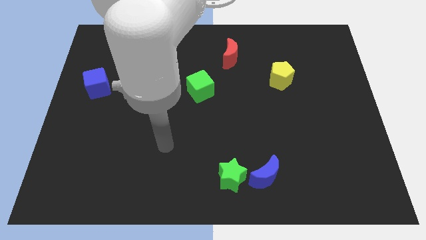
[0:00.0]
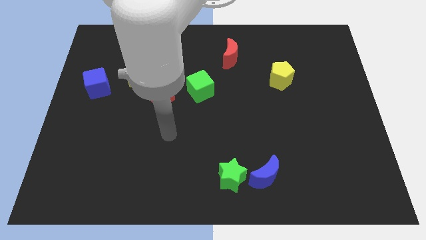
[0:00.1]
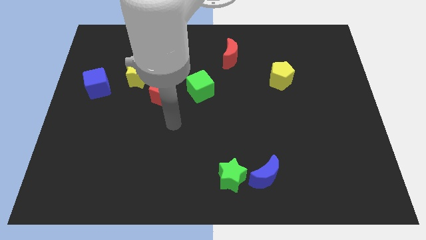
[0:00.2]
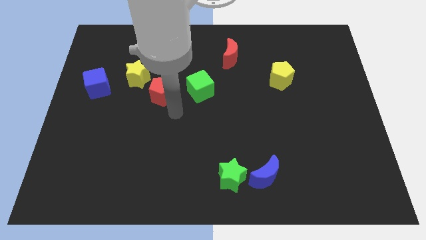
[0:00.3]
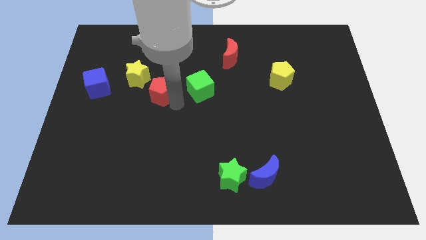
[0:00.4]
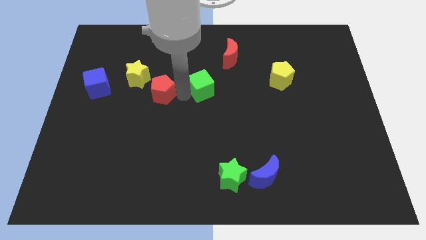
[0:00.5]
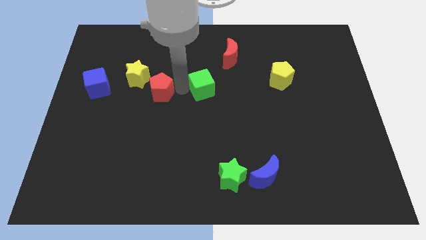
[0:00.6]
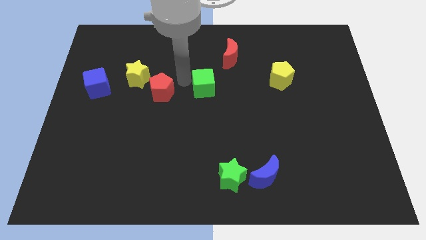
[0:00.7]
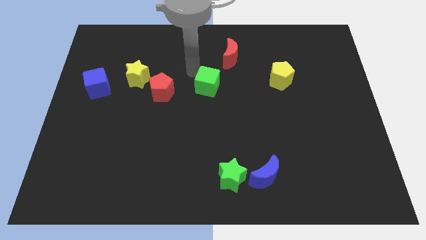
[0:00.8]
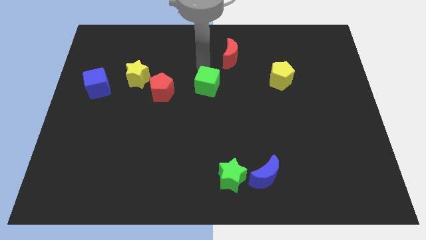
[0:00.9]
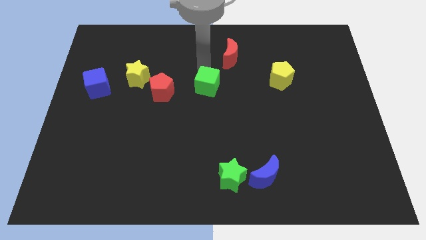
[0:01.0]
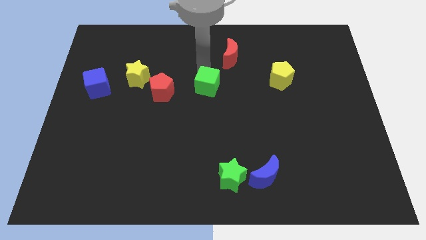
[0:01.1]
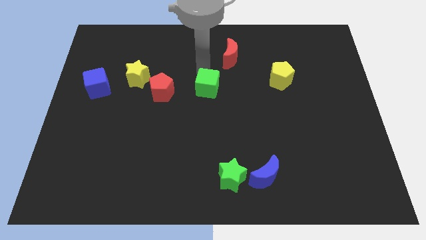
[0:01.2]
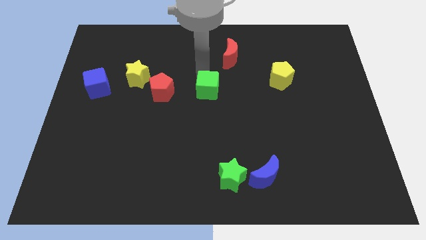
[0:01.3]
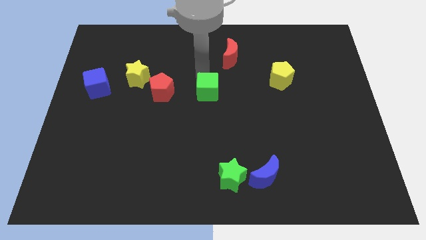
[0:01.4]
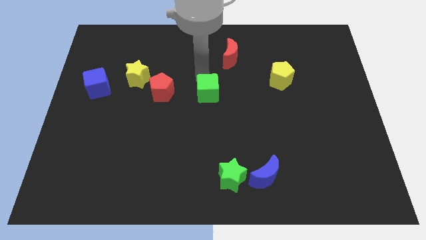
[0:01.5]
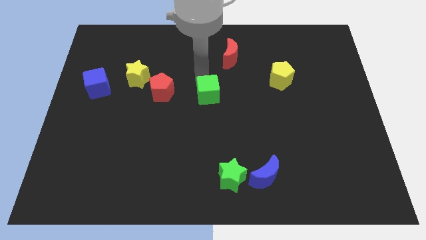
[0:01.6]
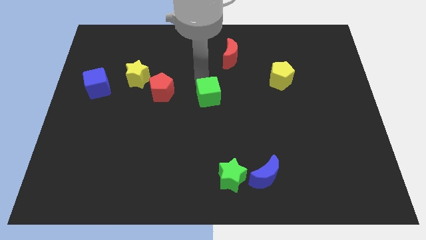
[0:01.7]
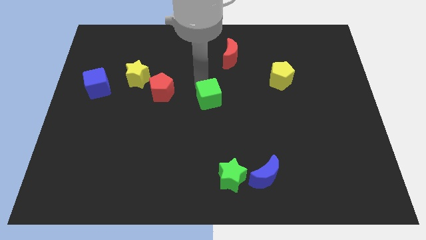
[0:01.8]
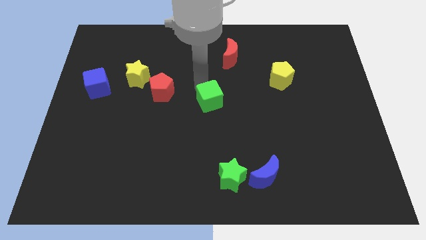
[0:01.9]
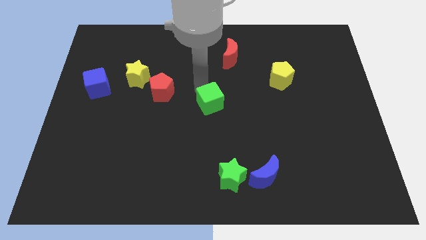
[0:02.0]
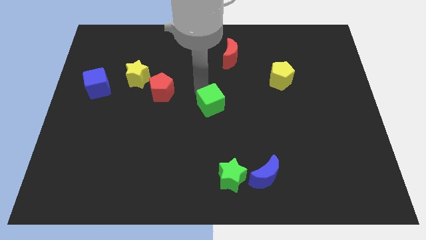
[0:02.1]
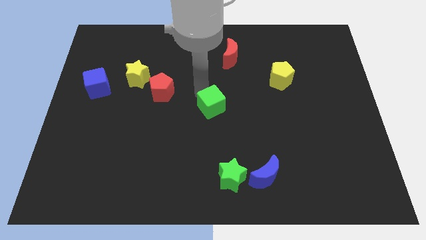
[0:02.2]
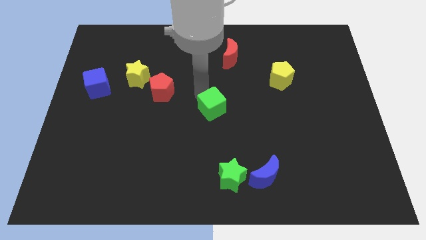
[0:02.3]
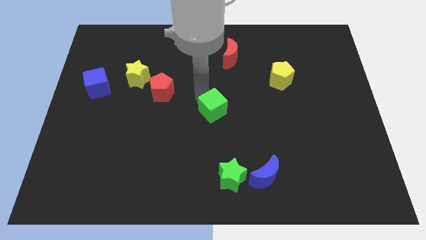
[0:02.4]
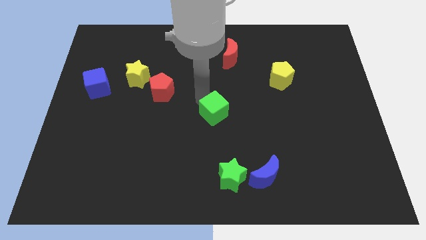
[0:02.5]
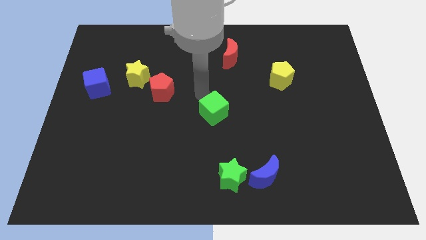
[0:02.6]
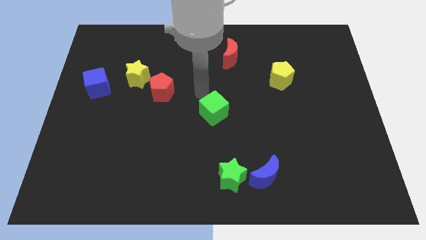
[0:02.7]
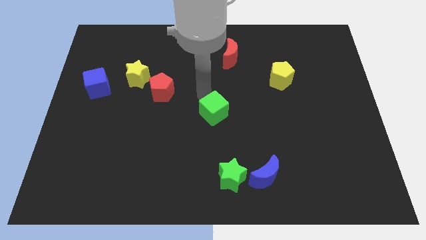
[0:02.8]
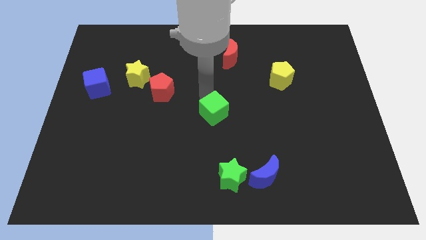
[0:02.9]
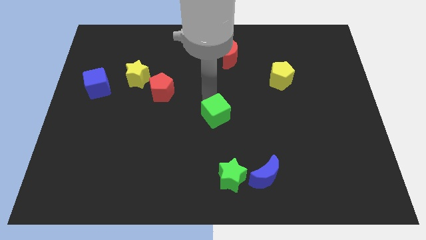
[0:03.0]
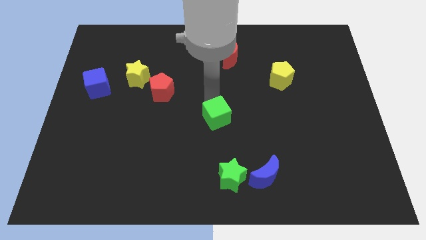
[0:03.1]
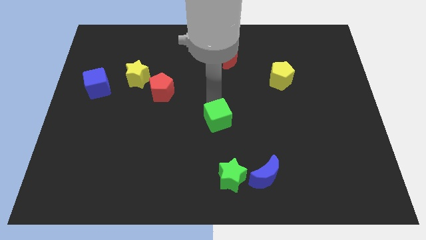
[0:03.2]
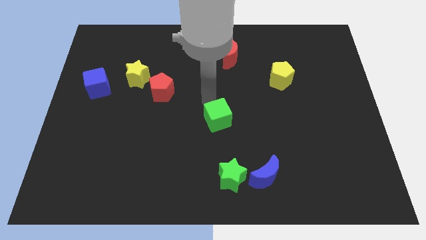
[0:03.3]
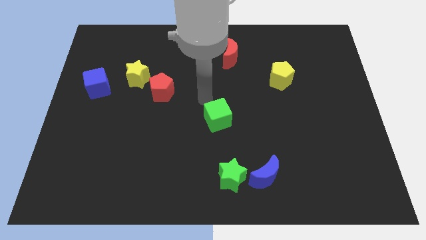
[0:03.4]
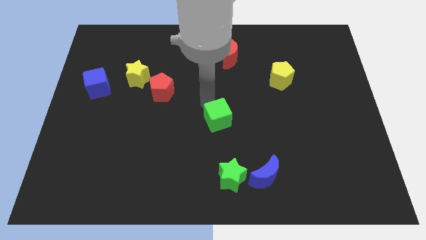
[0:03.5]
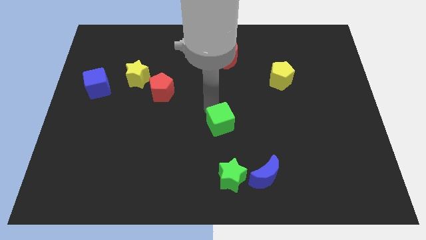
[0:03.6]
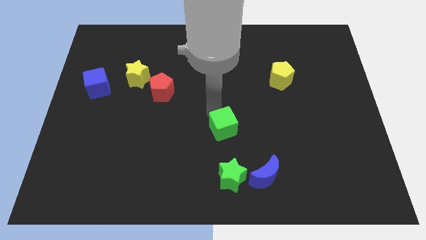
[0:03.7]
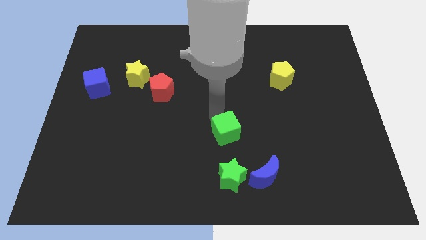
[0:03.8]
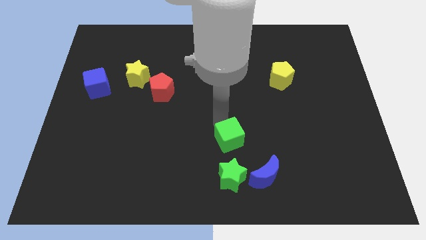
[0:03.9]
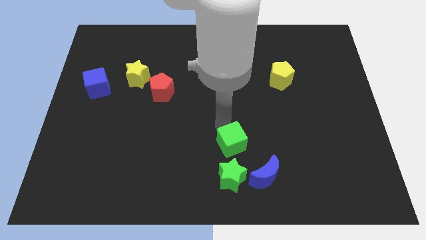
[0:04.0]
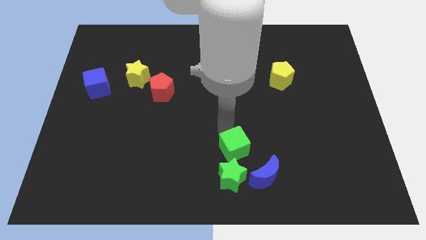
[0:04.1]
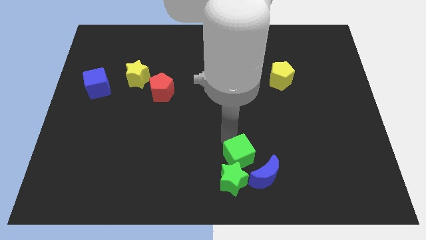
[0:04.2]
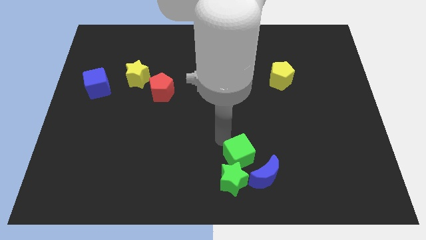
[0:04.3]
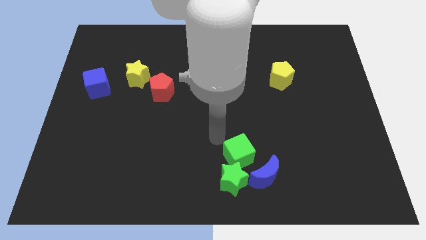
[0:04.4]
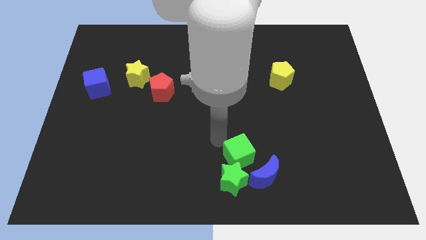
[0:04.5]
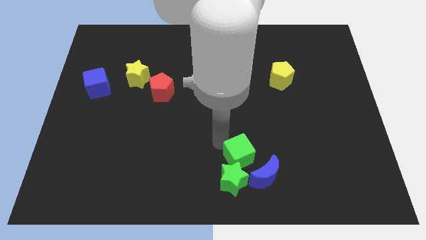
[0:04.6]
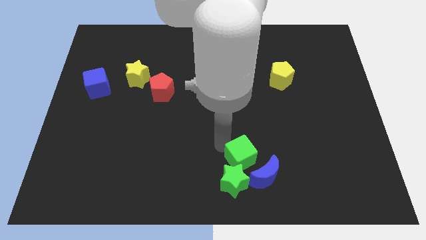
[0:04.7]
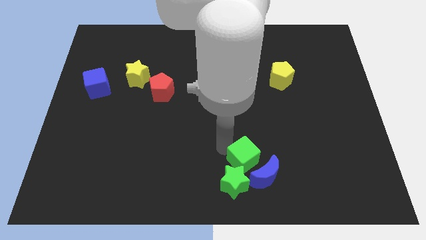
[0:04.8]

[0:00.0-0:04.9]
push the green cube to the blue moon

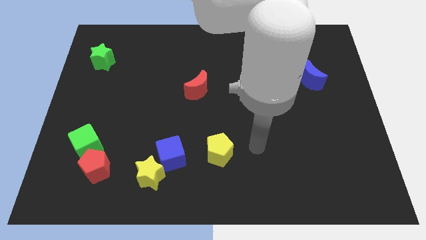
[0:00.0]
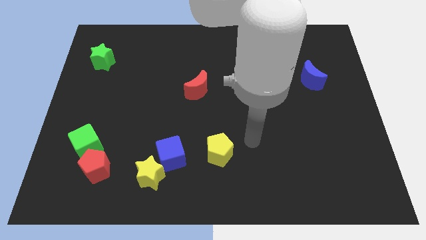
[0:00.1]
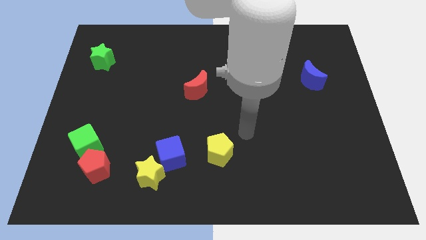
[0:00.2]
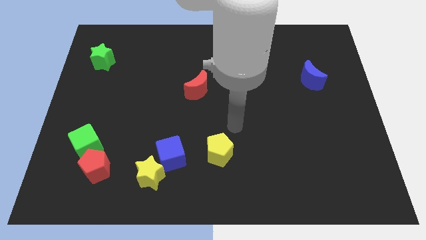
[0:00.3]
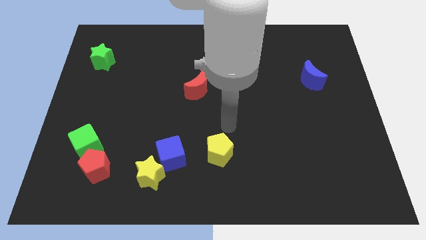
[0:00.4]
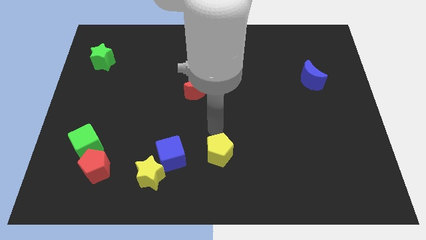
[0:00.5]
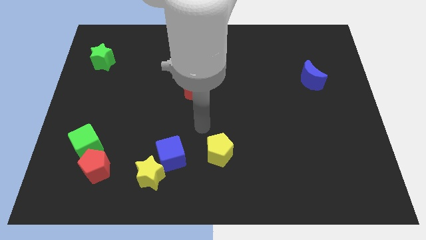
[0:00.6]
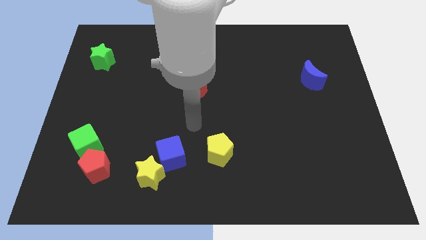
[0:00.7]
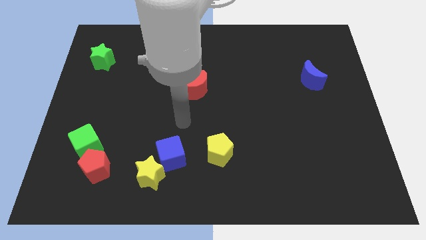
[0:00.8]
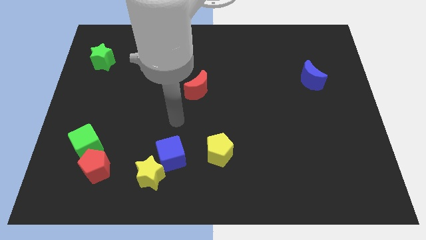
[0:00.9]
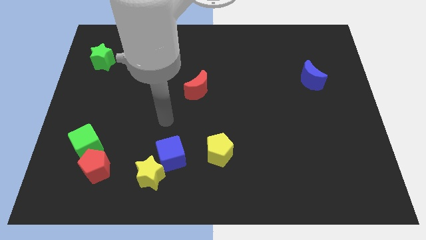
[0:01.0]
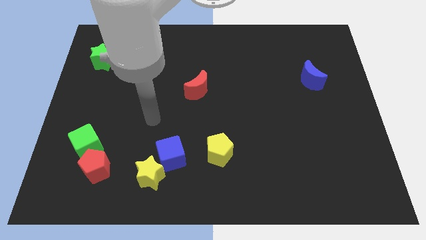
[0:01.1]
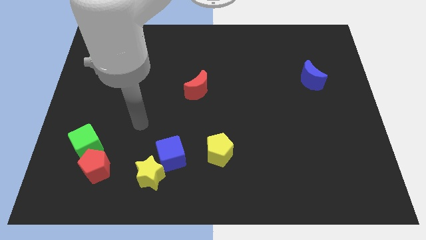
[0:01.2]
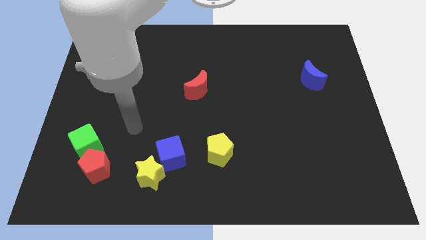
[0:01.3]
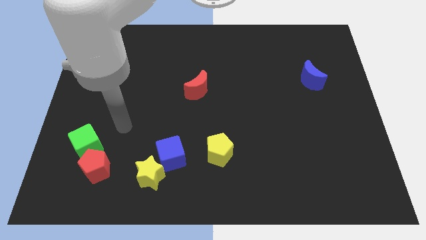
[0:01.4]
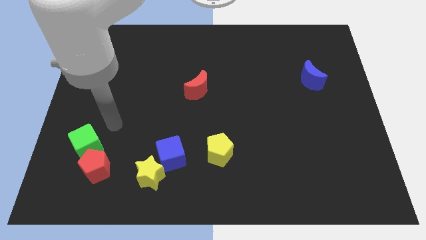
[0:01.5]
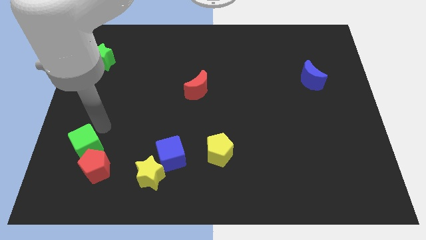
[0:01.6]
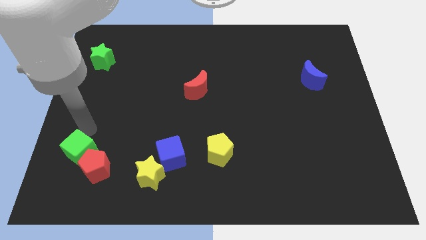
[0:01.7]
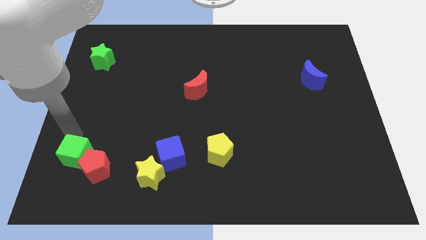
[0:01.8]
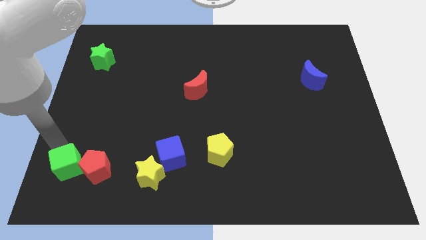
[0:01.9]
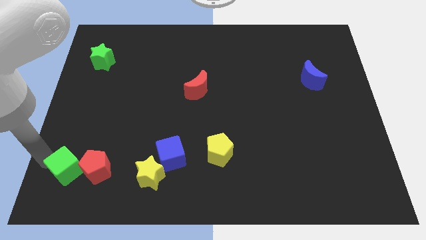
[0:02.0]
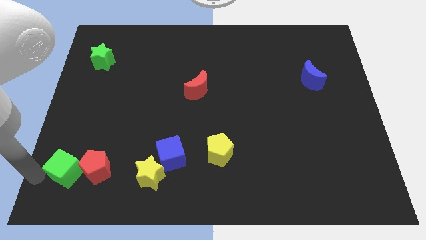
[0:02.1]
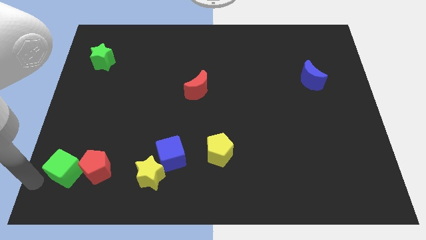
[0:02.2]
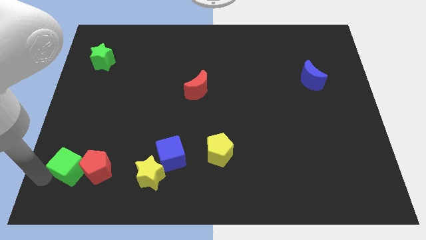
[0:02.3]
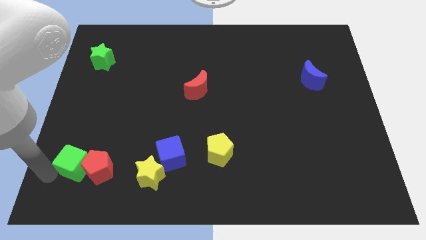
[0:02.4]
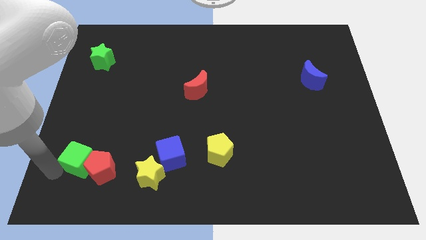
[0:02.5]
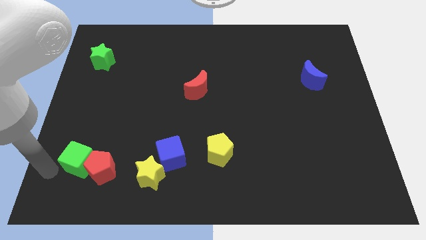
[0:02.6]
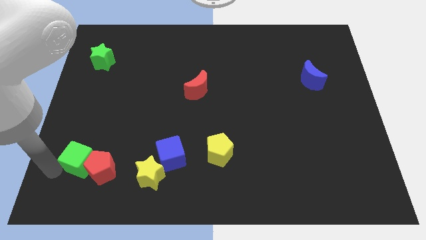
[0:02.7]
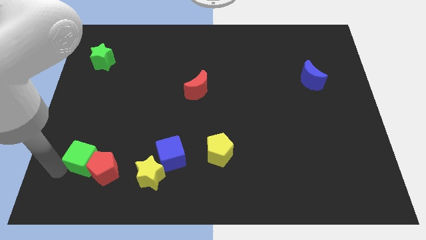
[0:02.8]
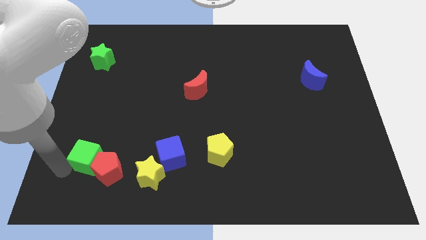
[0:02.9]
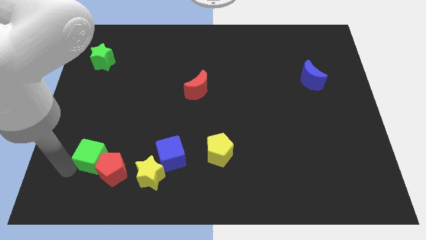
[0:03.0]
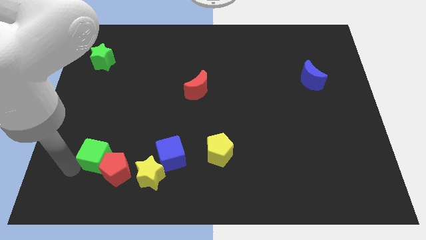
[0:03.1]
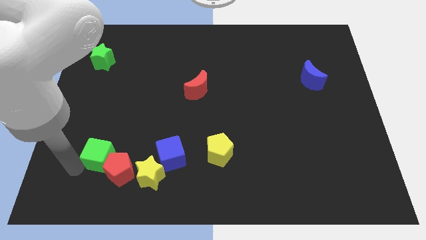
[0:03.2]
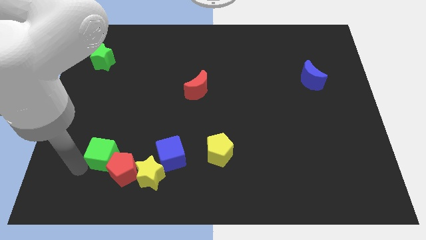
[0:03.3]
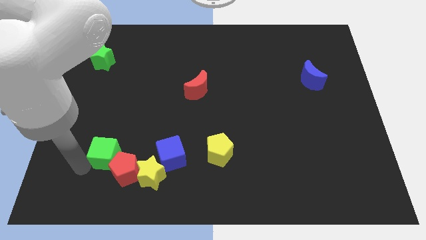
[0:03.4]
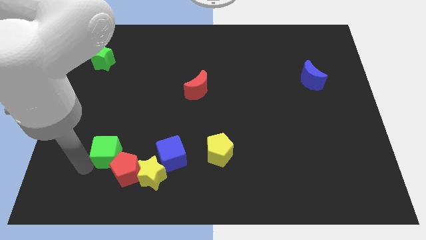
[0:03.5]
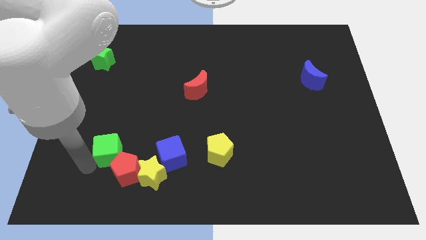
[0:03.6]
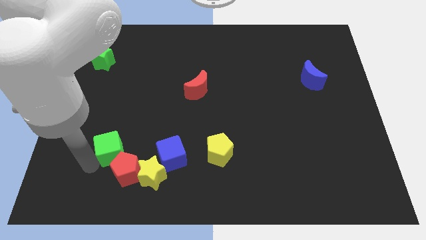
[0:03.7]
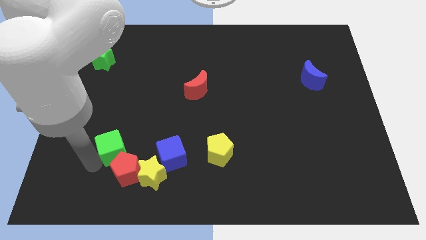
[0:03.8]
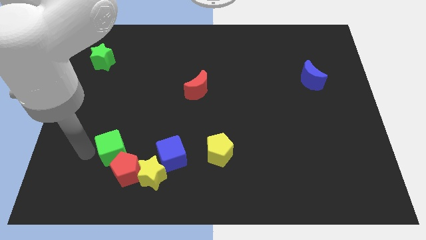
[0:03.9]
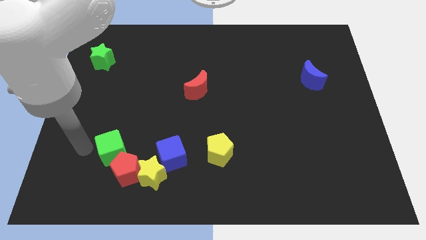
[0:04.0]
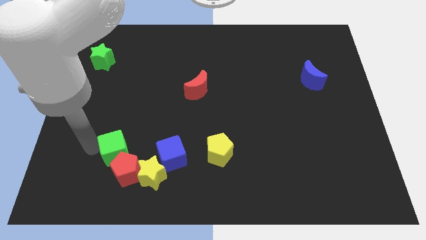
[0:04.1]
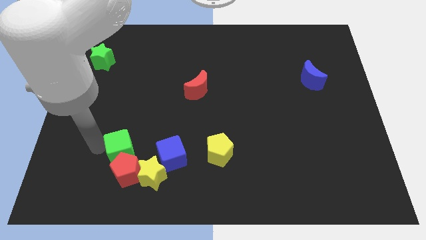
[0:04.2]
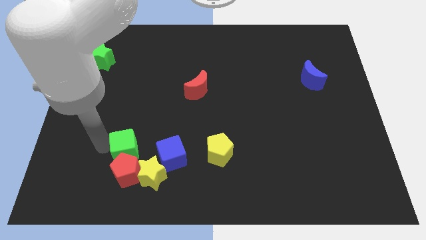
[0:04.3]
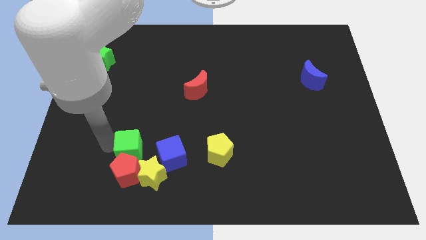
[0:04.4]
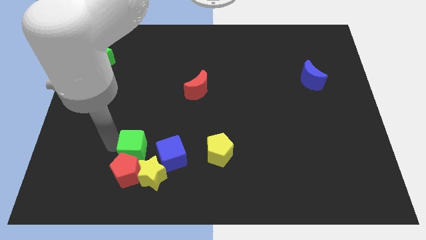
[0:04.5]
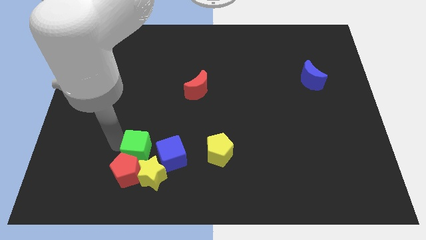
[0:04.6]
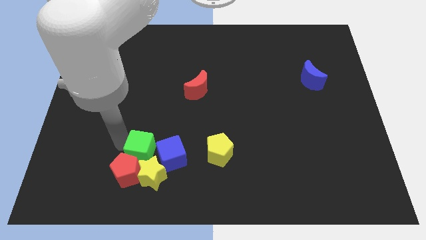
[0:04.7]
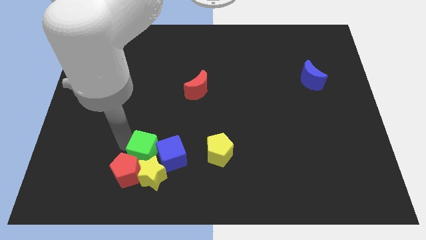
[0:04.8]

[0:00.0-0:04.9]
push the green cube towards the blue cube
